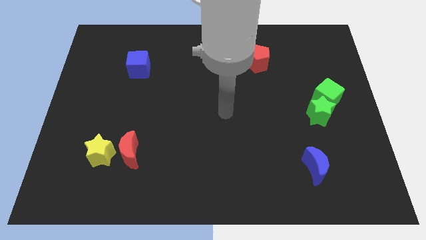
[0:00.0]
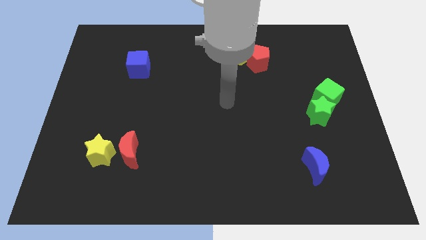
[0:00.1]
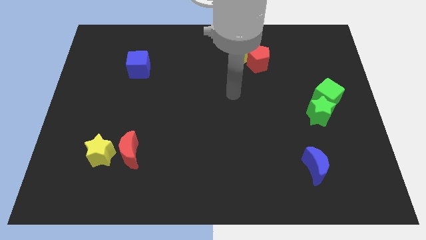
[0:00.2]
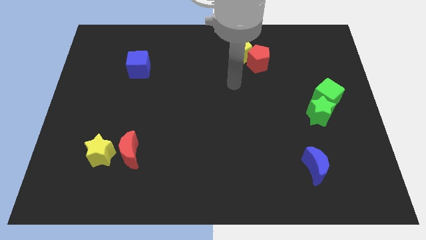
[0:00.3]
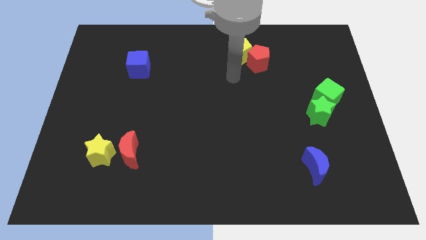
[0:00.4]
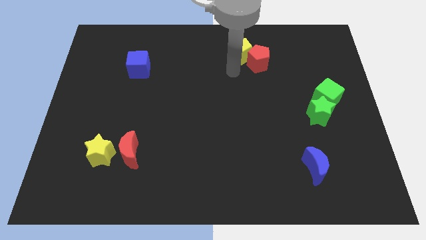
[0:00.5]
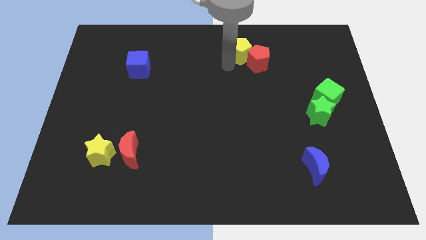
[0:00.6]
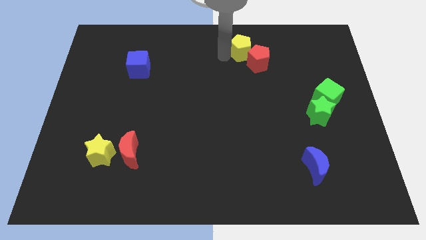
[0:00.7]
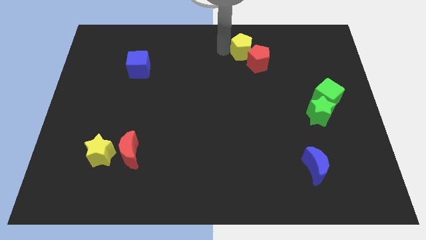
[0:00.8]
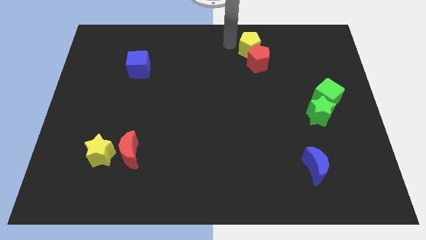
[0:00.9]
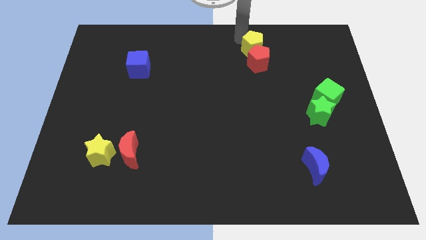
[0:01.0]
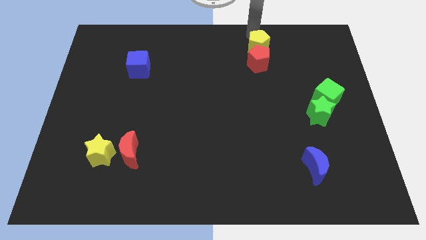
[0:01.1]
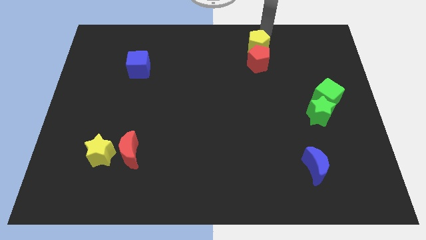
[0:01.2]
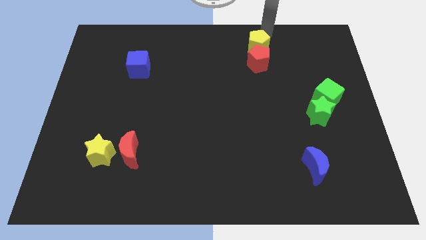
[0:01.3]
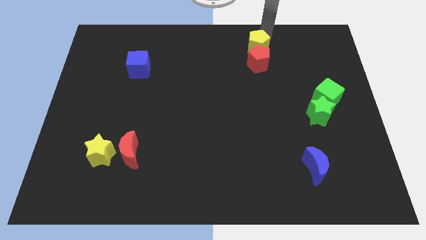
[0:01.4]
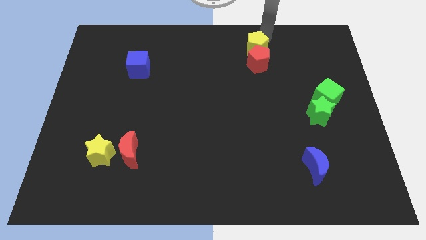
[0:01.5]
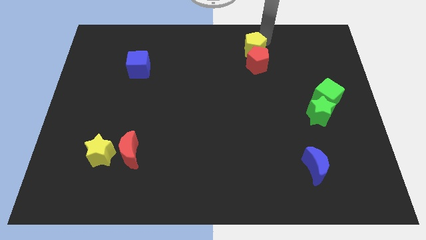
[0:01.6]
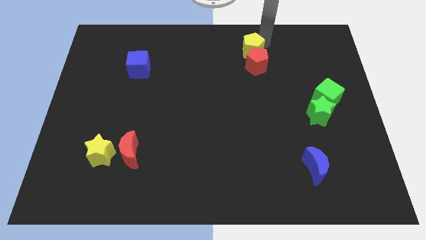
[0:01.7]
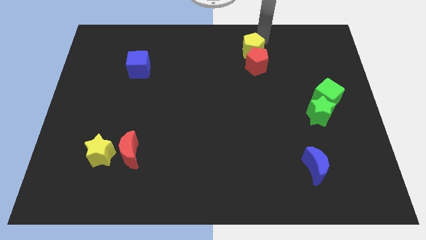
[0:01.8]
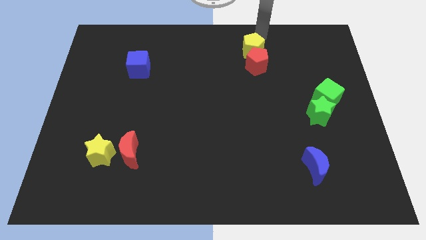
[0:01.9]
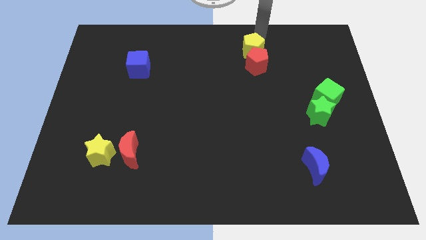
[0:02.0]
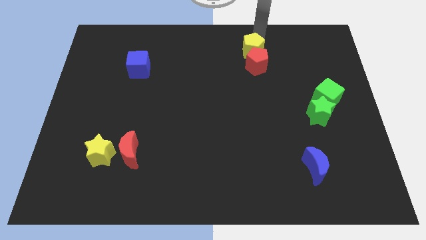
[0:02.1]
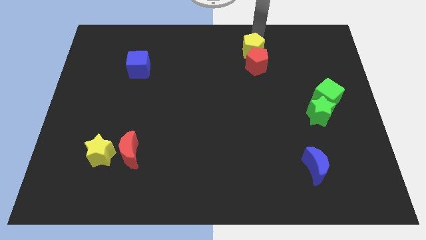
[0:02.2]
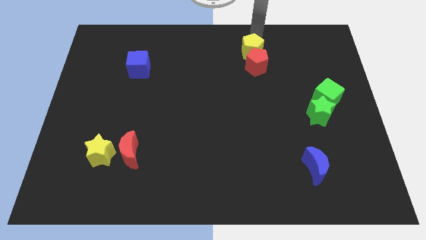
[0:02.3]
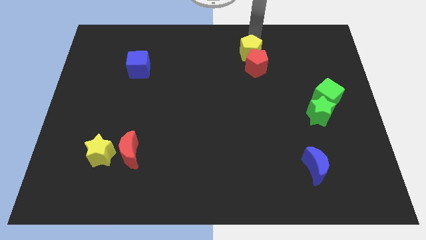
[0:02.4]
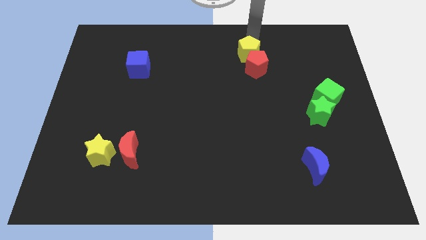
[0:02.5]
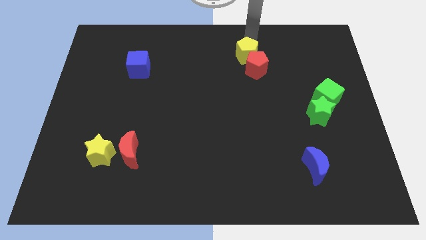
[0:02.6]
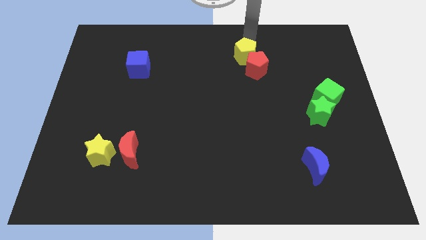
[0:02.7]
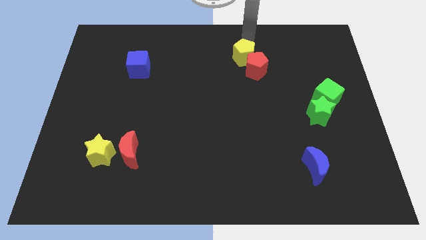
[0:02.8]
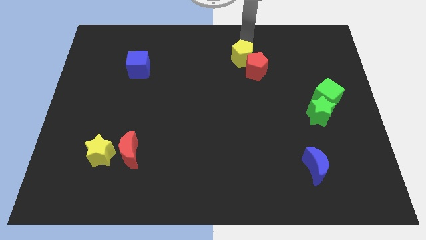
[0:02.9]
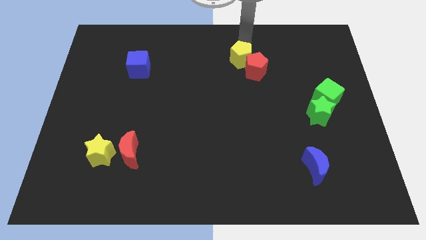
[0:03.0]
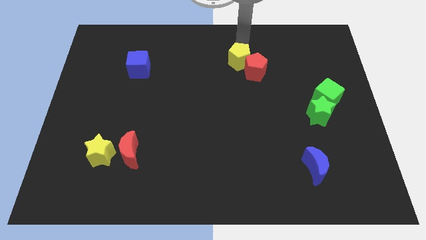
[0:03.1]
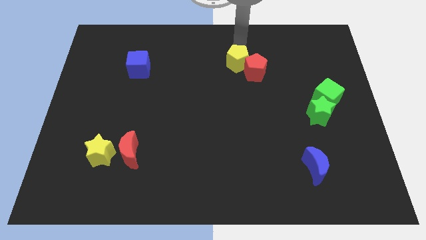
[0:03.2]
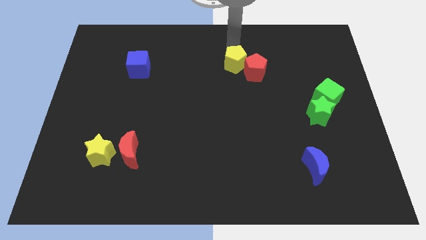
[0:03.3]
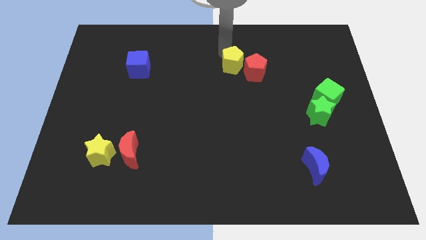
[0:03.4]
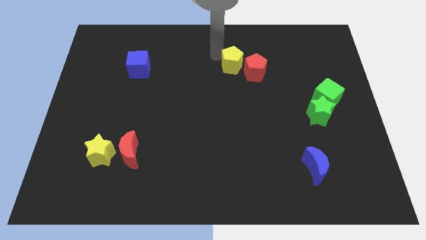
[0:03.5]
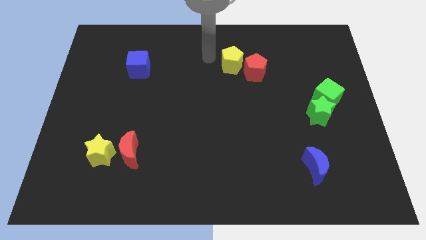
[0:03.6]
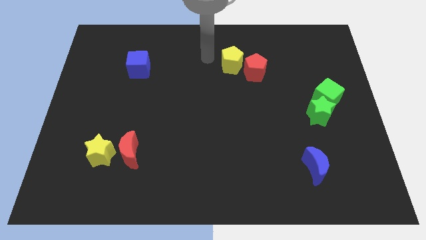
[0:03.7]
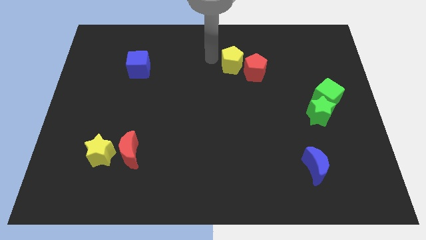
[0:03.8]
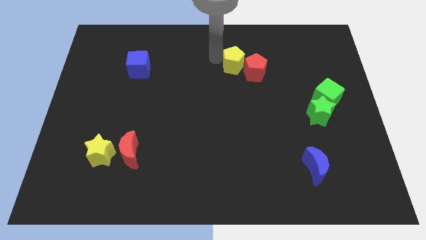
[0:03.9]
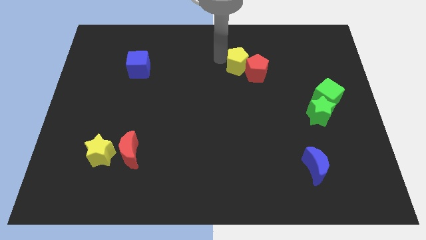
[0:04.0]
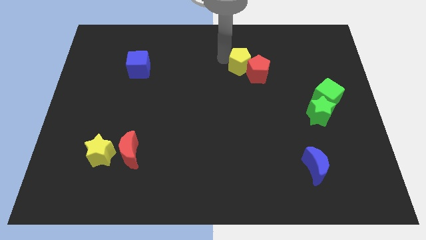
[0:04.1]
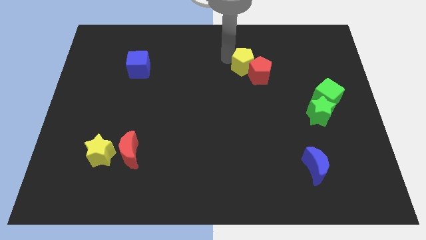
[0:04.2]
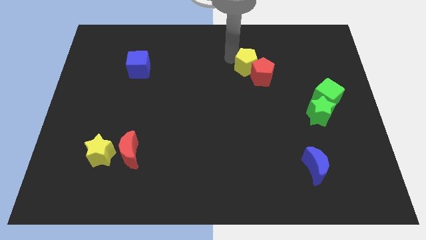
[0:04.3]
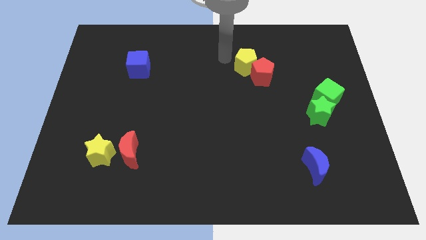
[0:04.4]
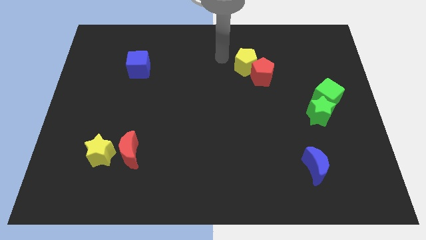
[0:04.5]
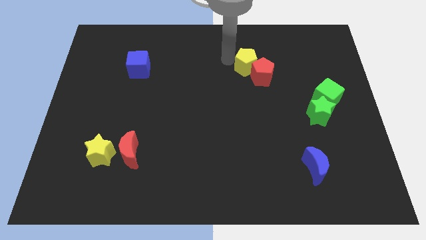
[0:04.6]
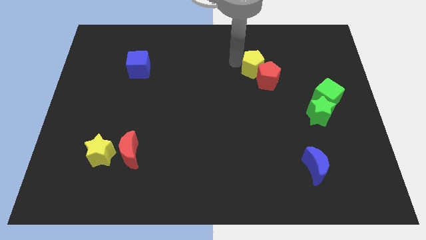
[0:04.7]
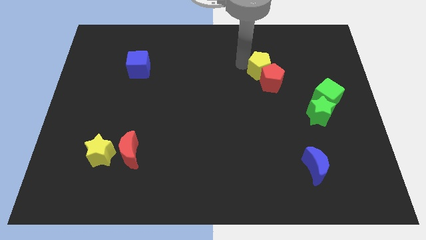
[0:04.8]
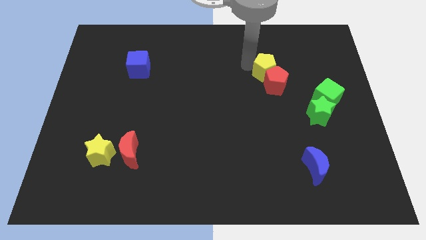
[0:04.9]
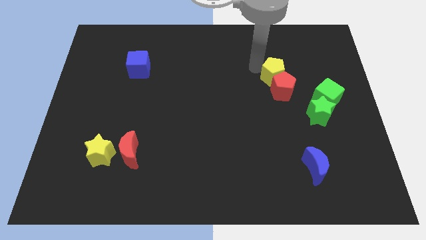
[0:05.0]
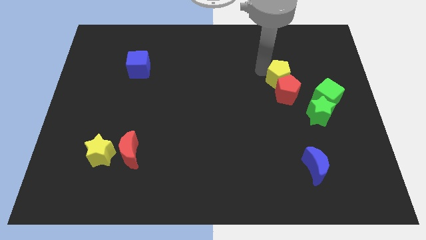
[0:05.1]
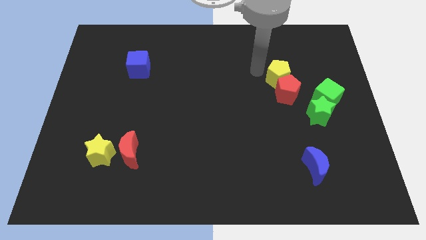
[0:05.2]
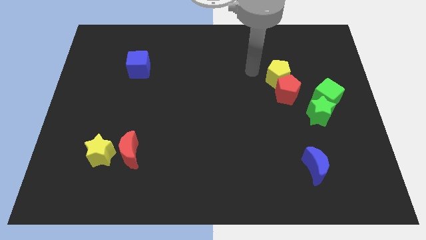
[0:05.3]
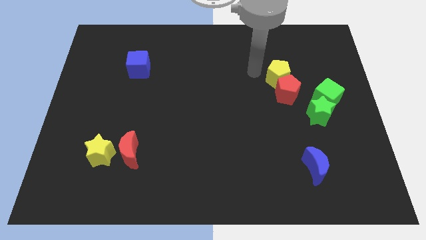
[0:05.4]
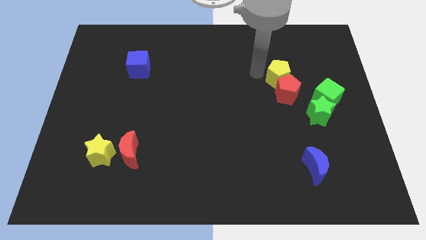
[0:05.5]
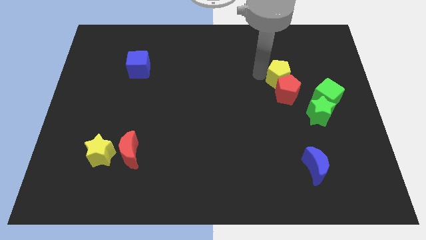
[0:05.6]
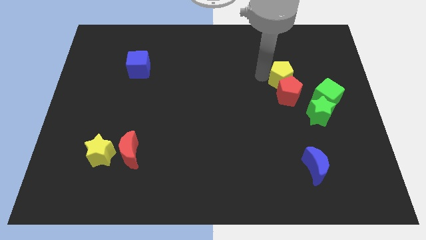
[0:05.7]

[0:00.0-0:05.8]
slide the yellow pentagon diagonally up and to the left of the green cube
